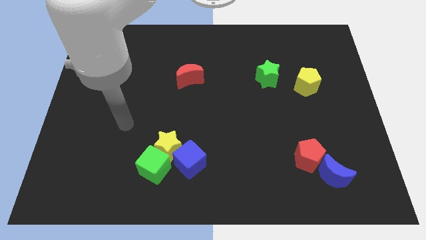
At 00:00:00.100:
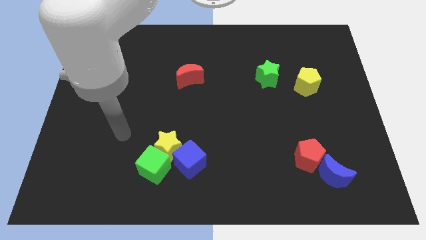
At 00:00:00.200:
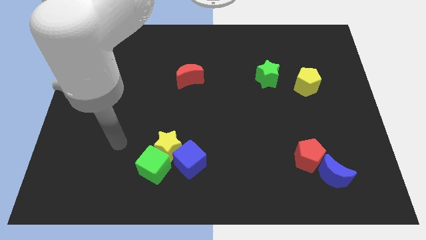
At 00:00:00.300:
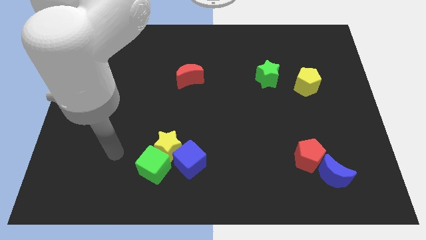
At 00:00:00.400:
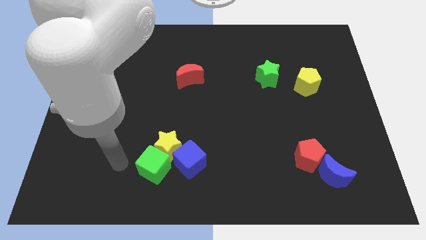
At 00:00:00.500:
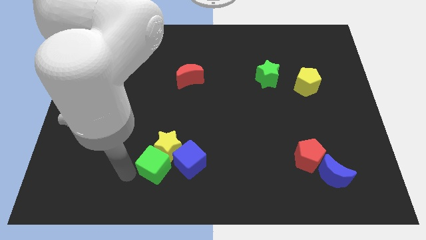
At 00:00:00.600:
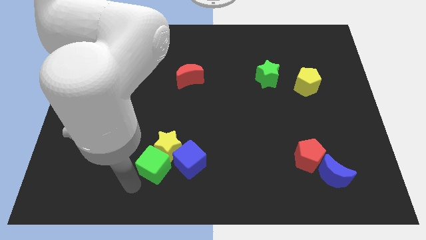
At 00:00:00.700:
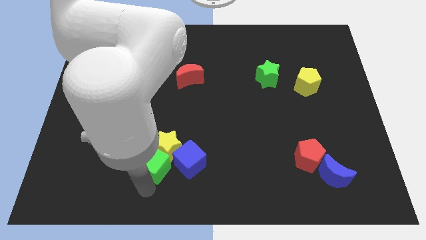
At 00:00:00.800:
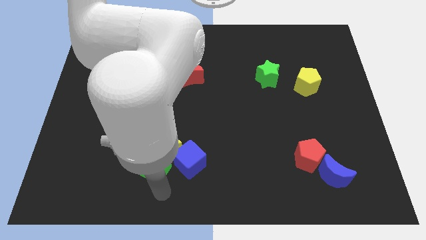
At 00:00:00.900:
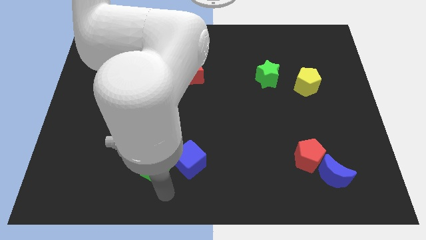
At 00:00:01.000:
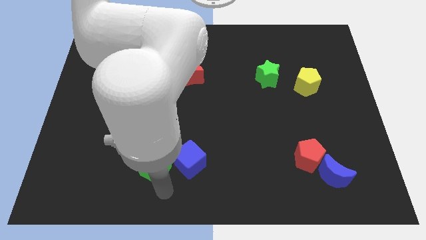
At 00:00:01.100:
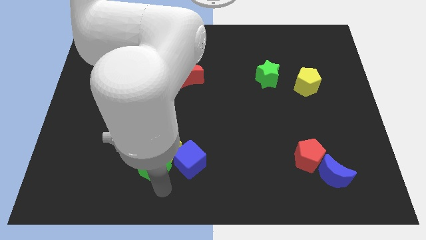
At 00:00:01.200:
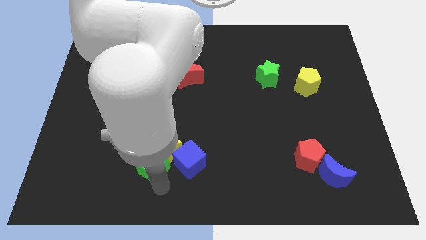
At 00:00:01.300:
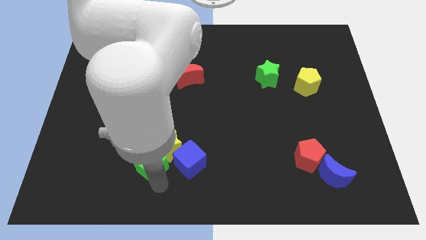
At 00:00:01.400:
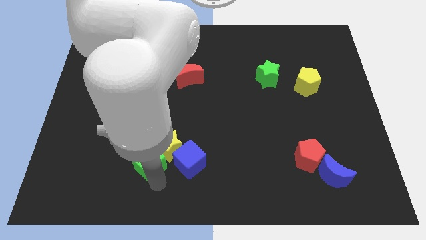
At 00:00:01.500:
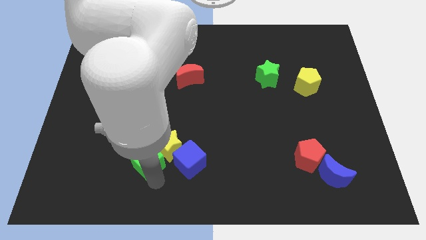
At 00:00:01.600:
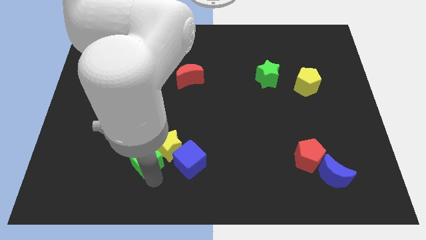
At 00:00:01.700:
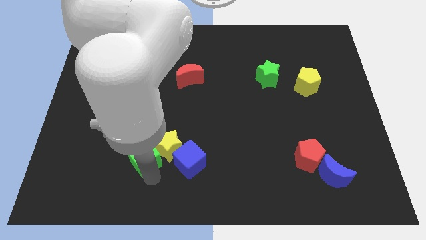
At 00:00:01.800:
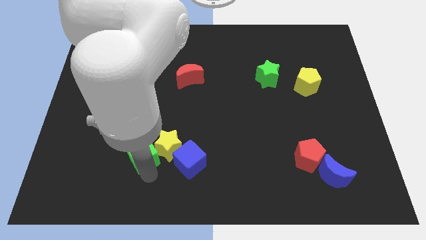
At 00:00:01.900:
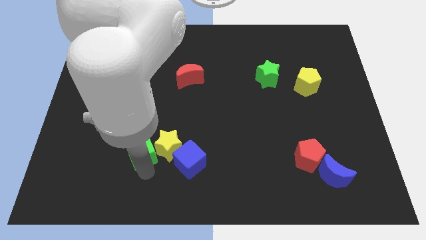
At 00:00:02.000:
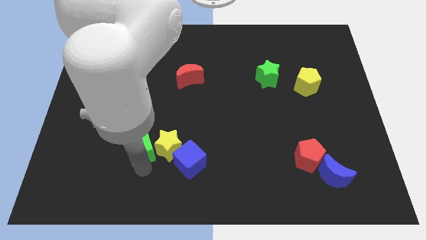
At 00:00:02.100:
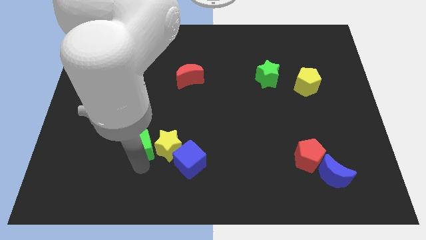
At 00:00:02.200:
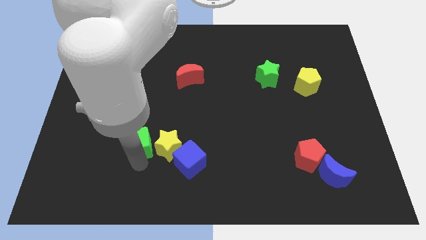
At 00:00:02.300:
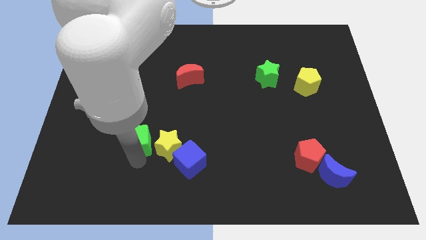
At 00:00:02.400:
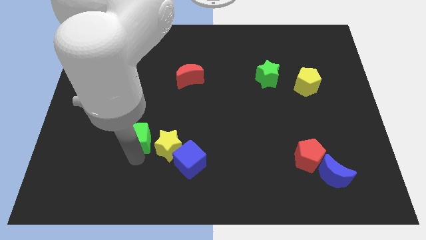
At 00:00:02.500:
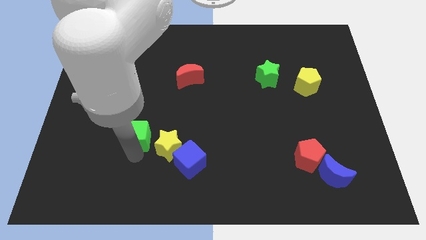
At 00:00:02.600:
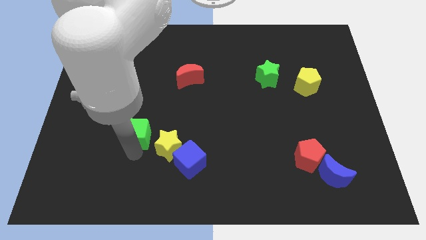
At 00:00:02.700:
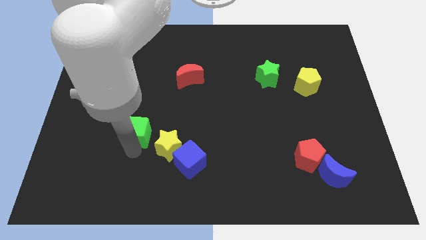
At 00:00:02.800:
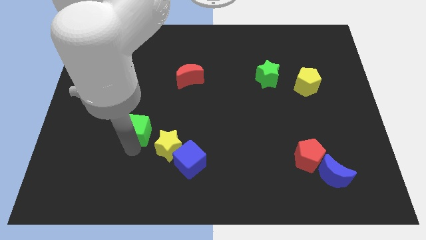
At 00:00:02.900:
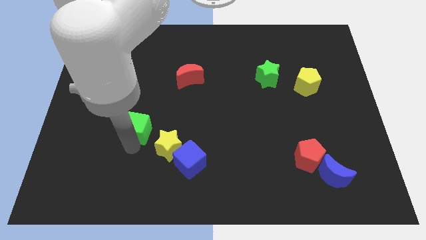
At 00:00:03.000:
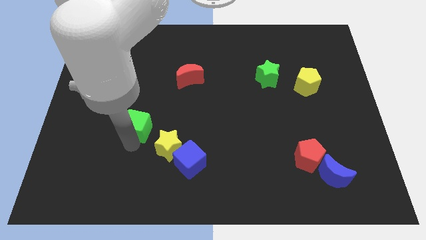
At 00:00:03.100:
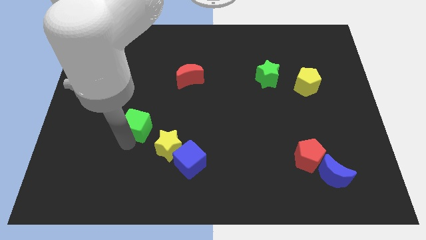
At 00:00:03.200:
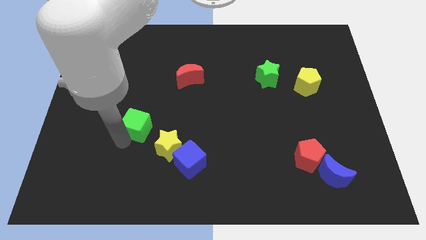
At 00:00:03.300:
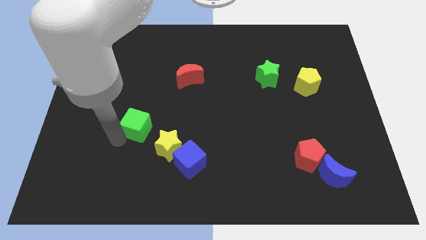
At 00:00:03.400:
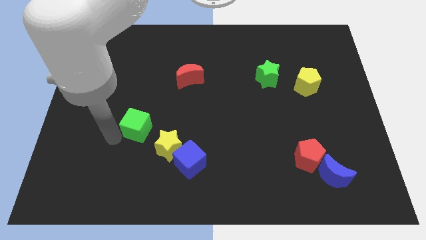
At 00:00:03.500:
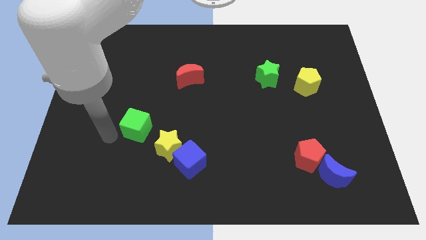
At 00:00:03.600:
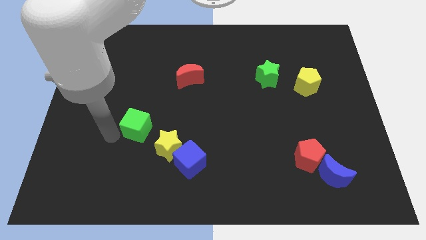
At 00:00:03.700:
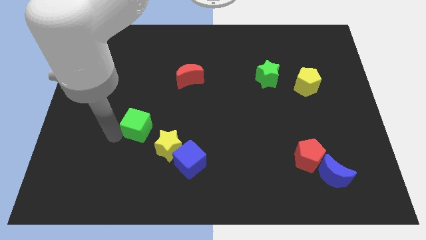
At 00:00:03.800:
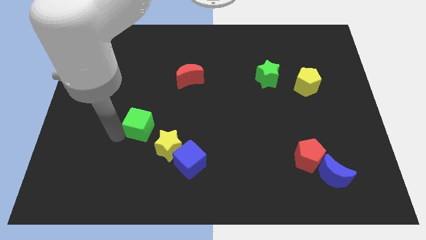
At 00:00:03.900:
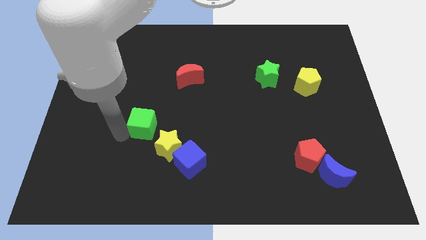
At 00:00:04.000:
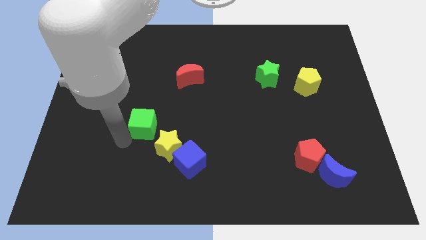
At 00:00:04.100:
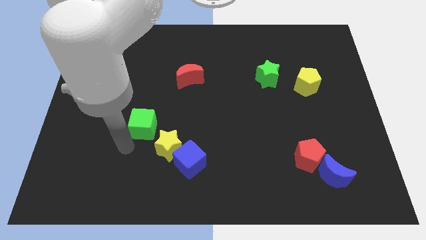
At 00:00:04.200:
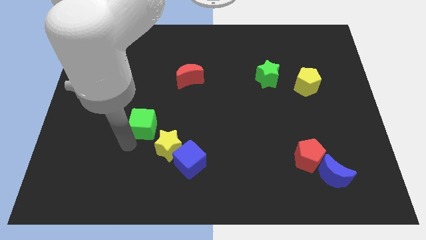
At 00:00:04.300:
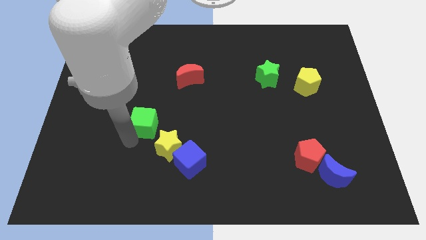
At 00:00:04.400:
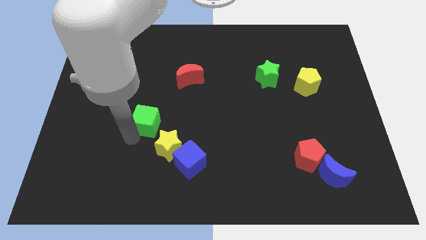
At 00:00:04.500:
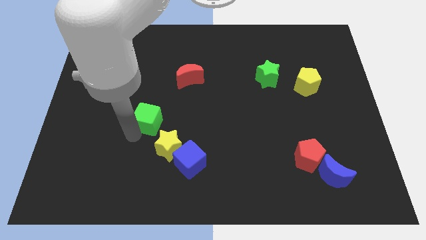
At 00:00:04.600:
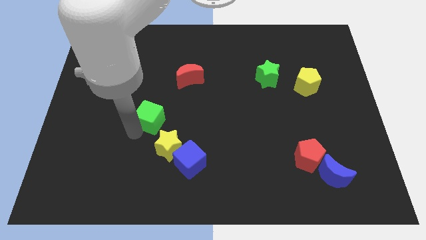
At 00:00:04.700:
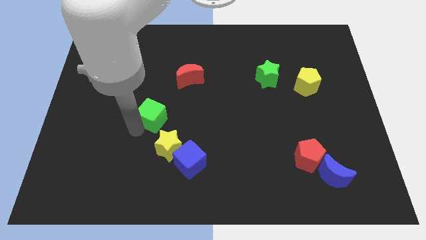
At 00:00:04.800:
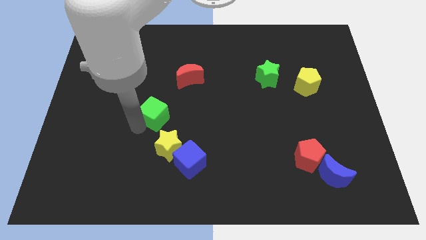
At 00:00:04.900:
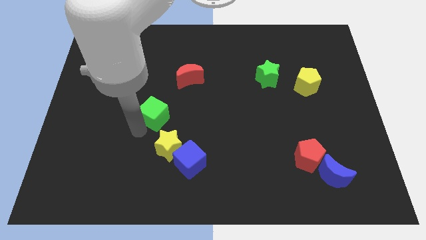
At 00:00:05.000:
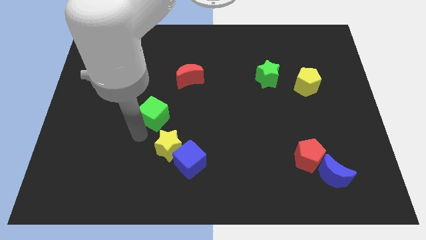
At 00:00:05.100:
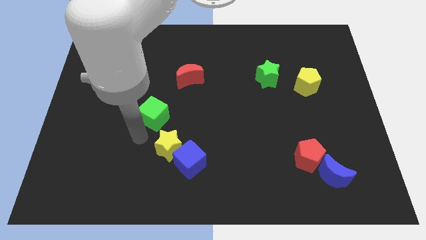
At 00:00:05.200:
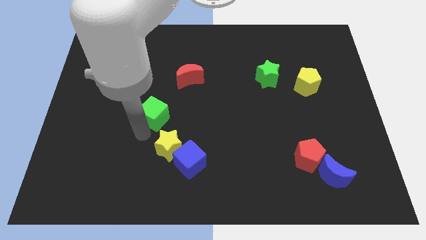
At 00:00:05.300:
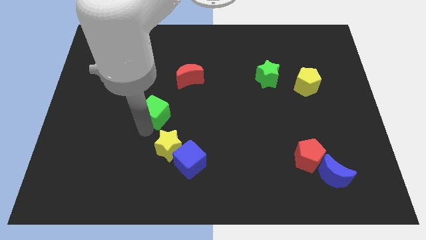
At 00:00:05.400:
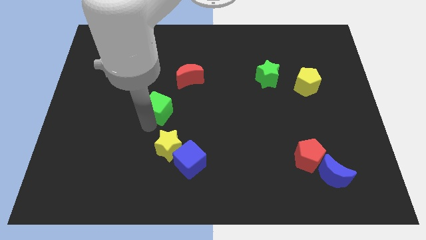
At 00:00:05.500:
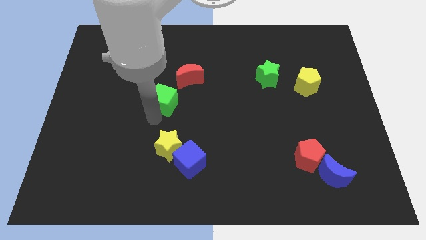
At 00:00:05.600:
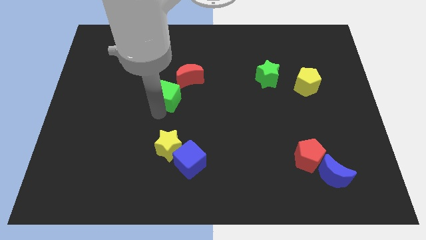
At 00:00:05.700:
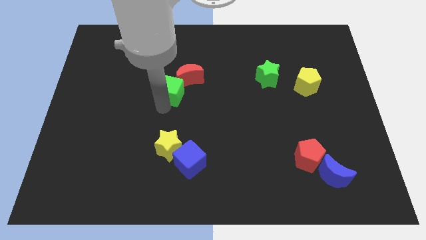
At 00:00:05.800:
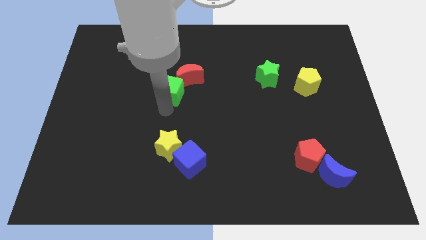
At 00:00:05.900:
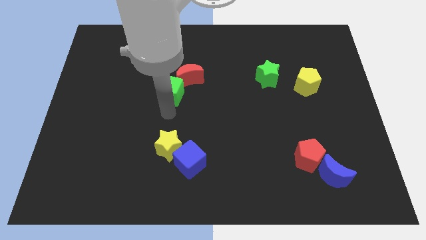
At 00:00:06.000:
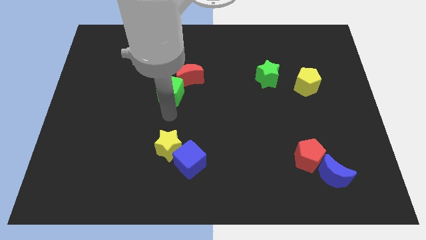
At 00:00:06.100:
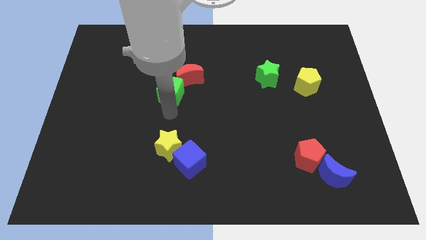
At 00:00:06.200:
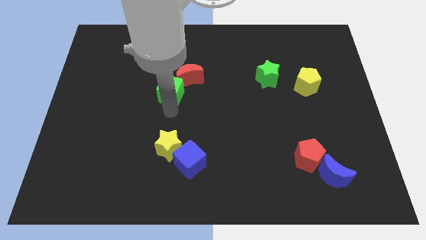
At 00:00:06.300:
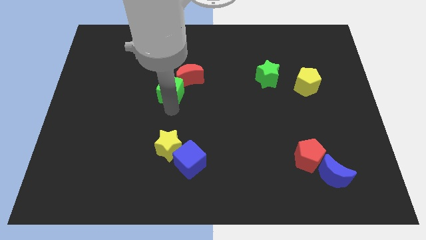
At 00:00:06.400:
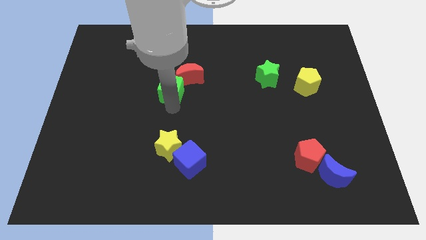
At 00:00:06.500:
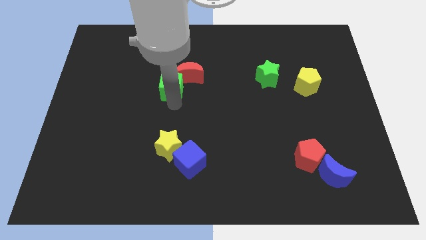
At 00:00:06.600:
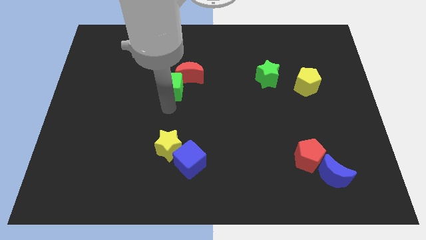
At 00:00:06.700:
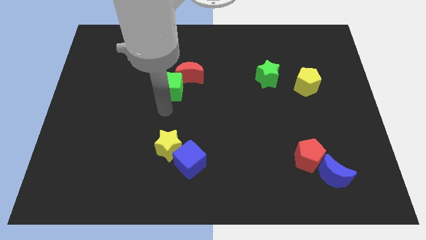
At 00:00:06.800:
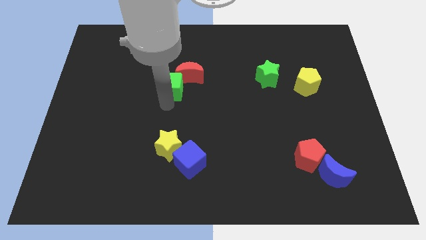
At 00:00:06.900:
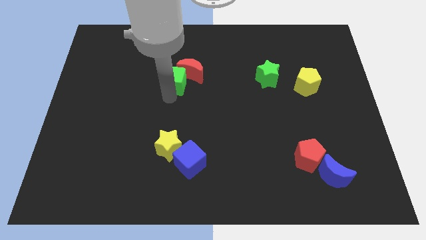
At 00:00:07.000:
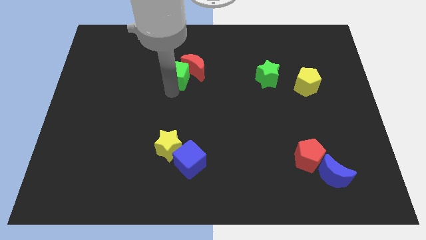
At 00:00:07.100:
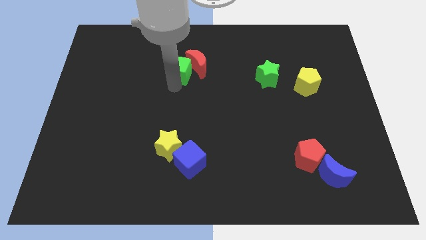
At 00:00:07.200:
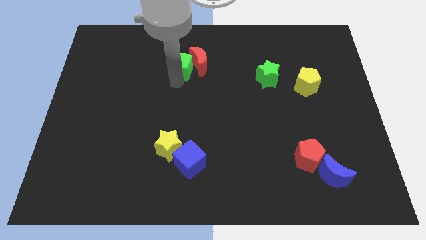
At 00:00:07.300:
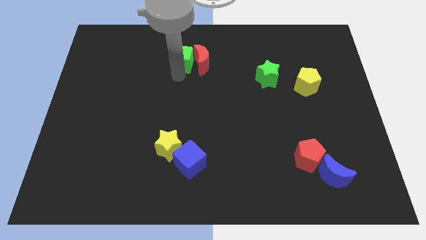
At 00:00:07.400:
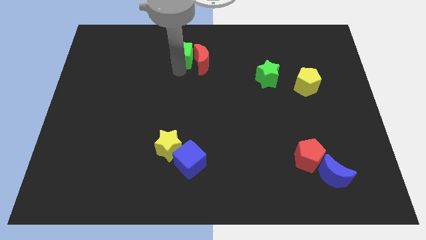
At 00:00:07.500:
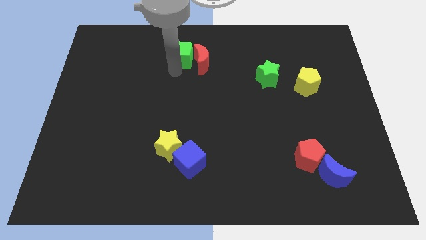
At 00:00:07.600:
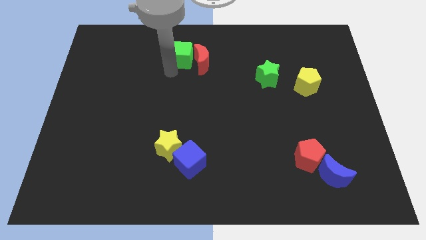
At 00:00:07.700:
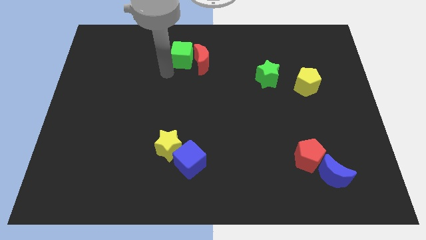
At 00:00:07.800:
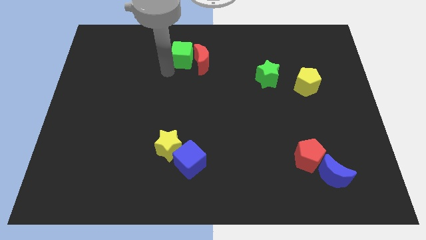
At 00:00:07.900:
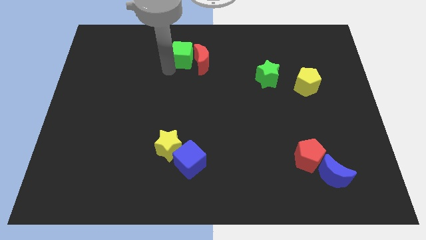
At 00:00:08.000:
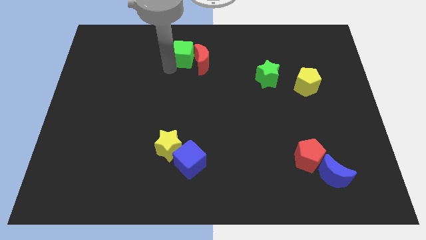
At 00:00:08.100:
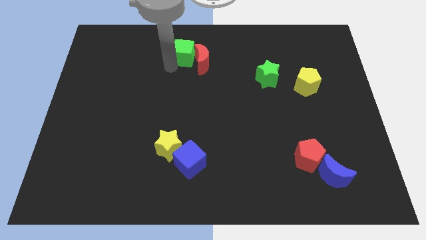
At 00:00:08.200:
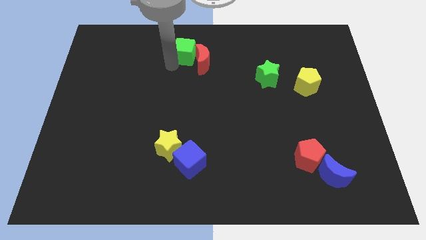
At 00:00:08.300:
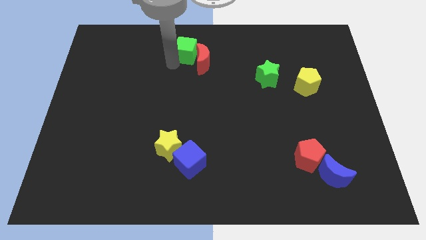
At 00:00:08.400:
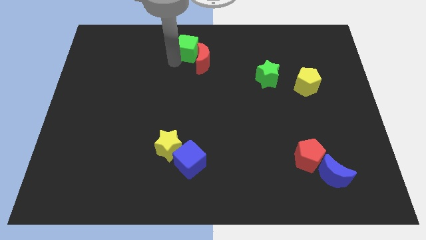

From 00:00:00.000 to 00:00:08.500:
slide the green cube to the towards your base
